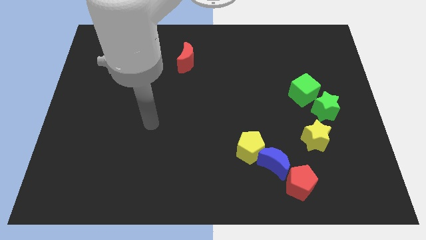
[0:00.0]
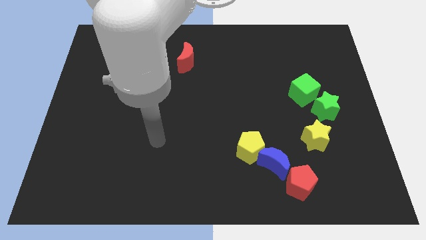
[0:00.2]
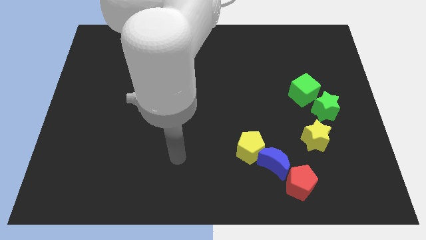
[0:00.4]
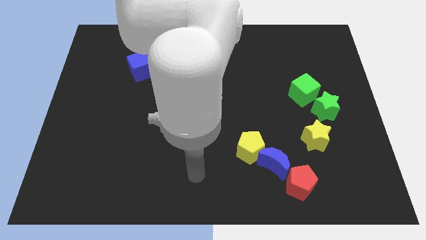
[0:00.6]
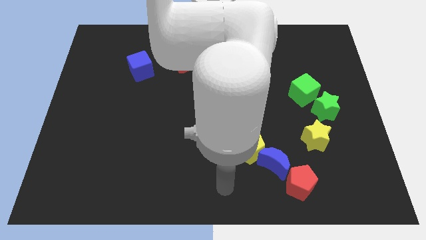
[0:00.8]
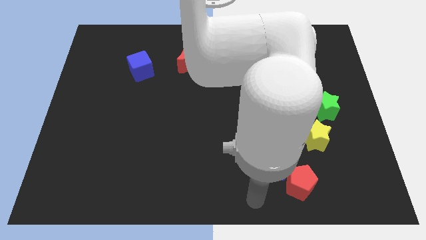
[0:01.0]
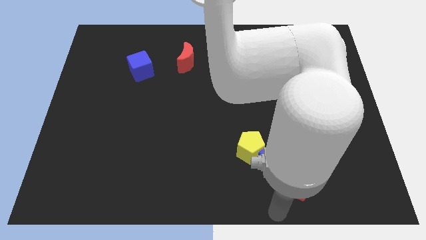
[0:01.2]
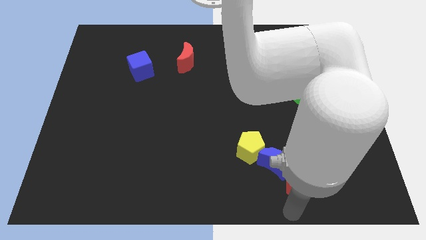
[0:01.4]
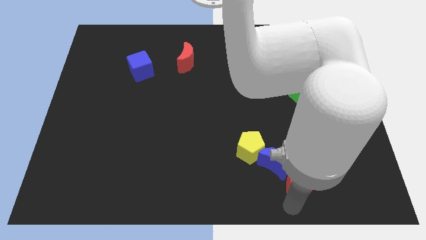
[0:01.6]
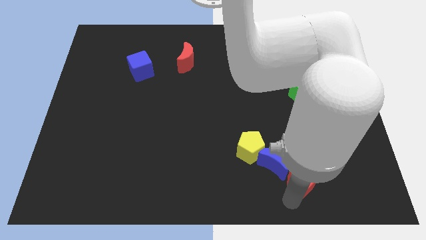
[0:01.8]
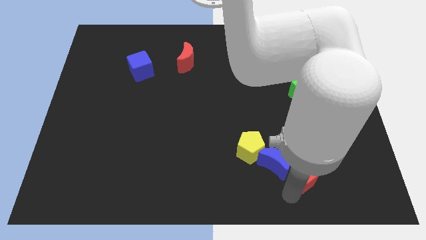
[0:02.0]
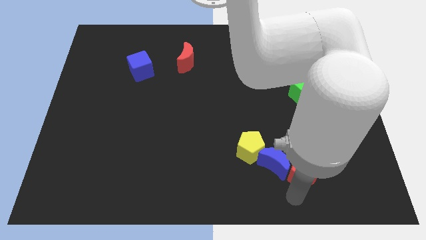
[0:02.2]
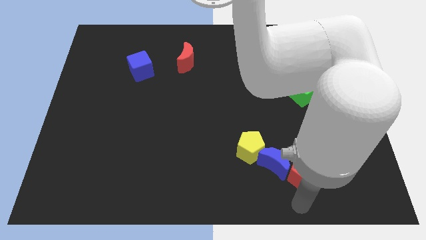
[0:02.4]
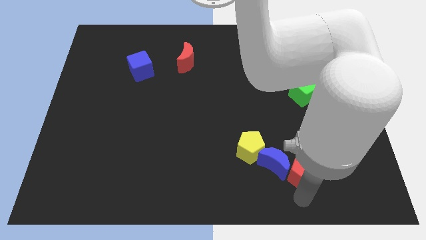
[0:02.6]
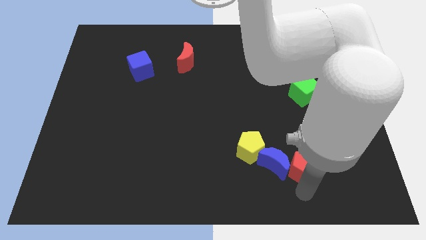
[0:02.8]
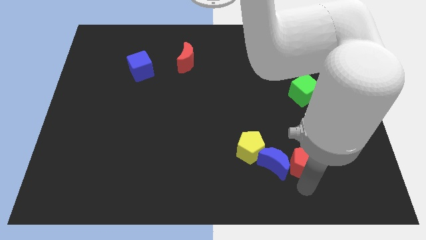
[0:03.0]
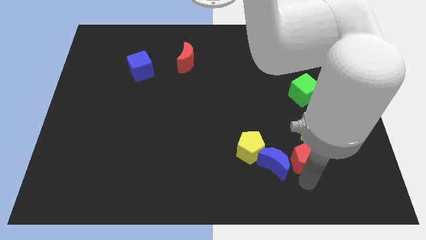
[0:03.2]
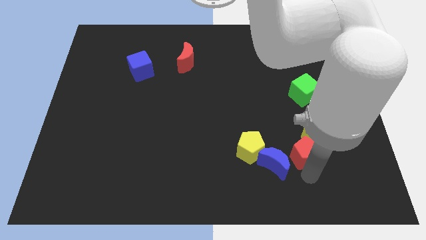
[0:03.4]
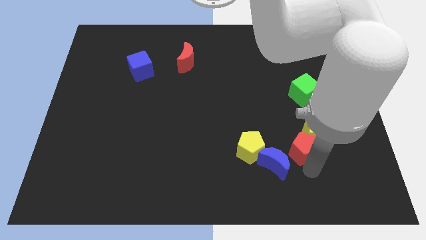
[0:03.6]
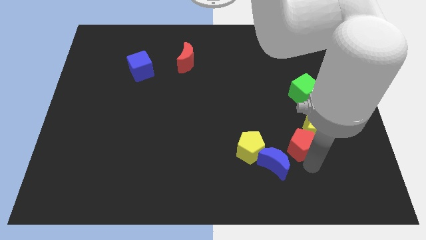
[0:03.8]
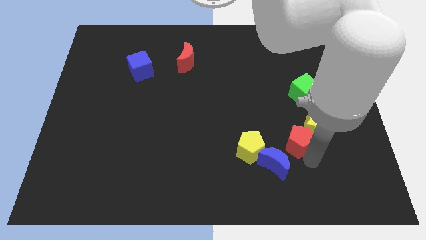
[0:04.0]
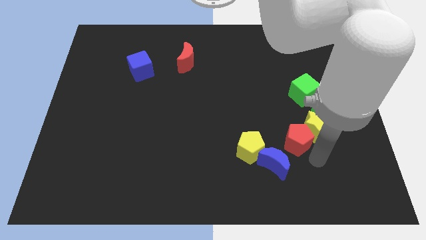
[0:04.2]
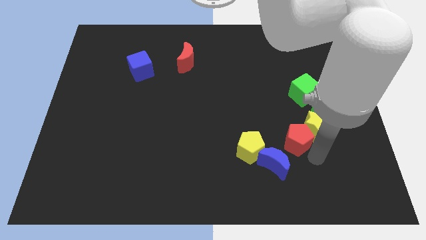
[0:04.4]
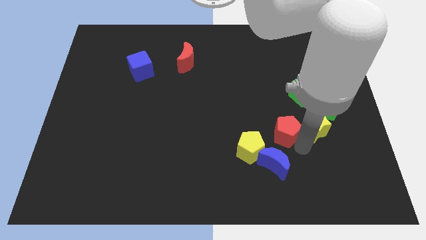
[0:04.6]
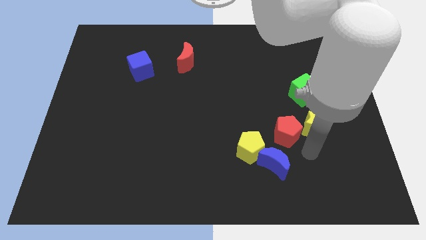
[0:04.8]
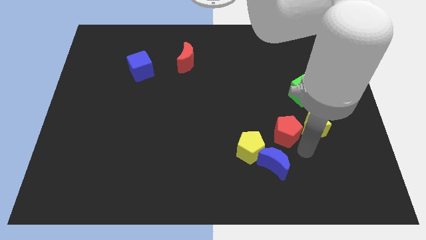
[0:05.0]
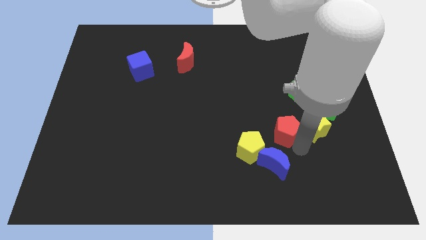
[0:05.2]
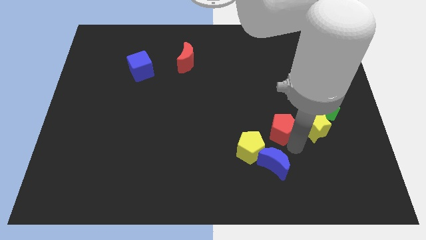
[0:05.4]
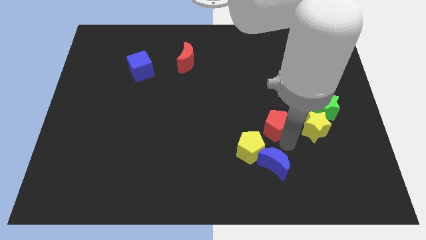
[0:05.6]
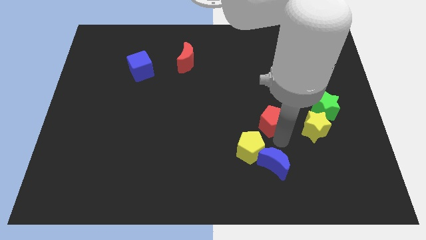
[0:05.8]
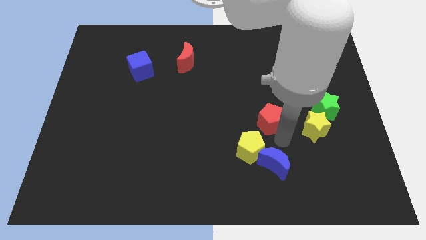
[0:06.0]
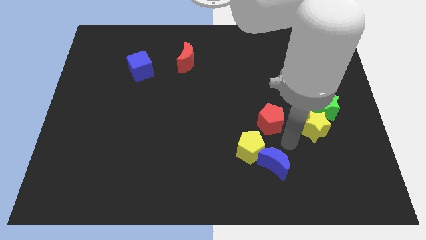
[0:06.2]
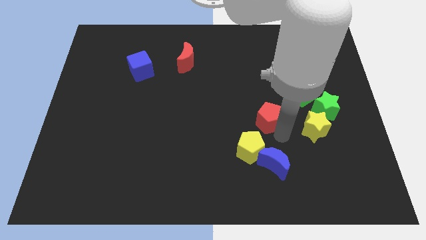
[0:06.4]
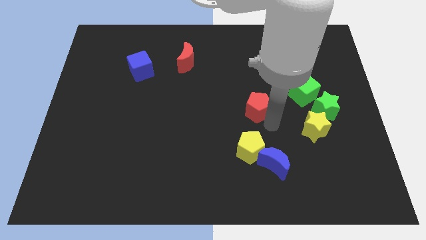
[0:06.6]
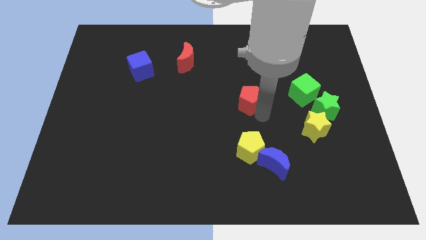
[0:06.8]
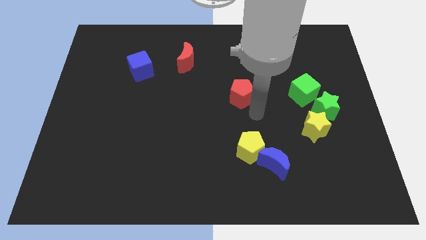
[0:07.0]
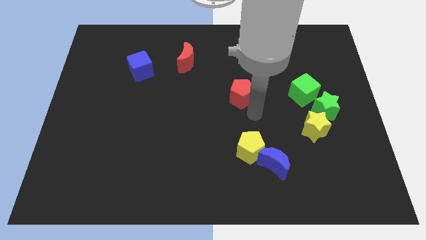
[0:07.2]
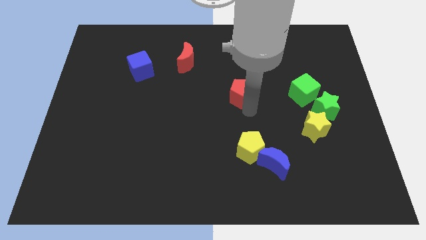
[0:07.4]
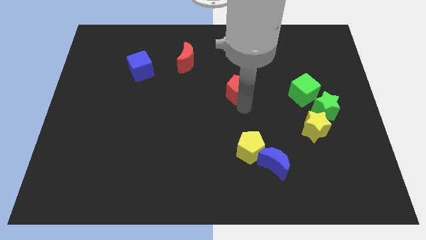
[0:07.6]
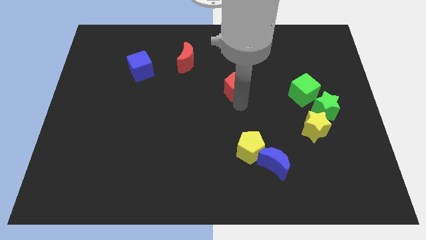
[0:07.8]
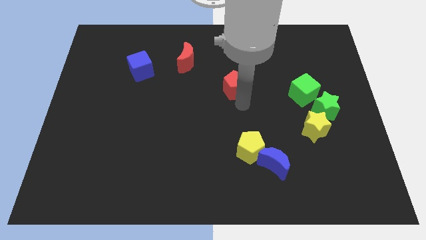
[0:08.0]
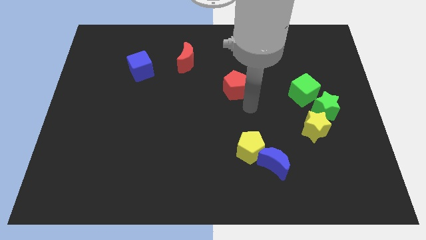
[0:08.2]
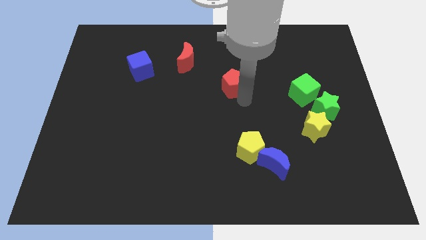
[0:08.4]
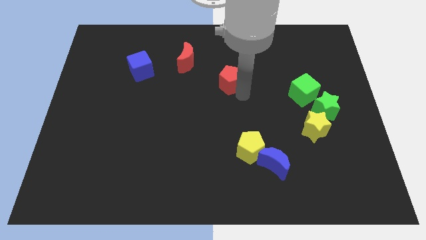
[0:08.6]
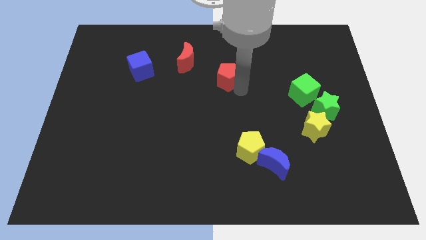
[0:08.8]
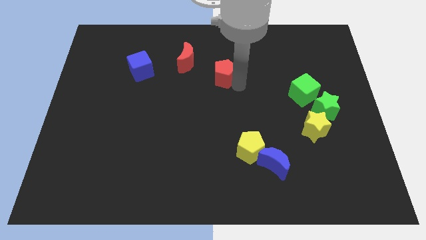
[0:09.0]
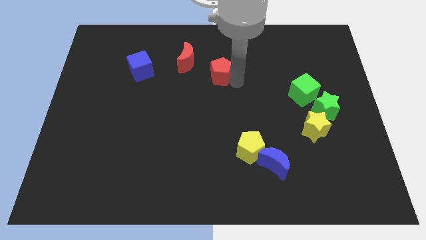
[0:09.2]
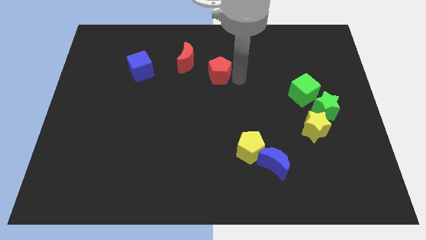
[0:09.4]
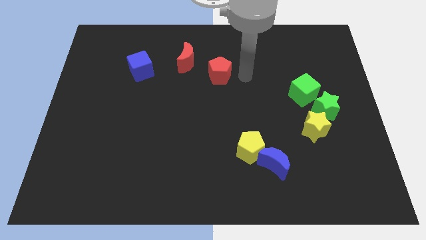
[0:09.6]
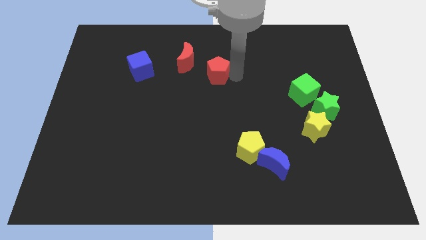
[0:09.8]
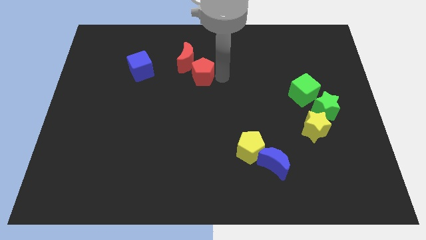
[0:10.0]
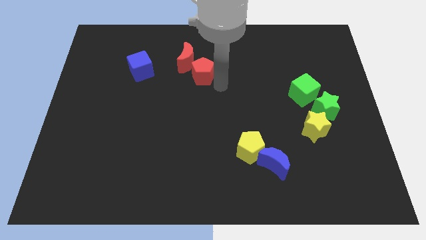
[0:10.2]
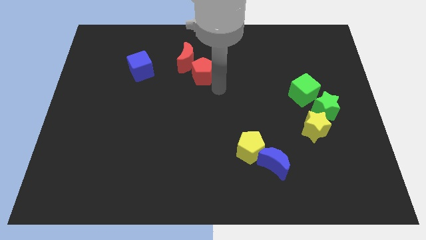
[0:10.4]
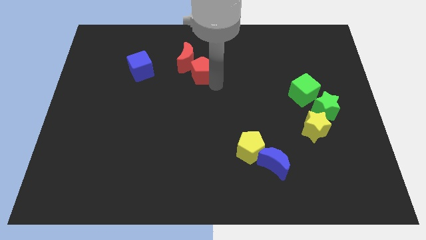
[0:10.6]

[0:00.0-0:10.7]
slide the red pentagon to the red moon

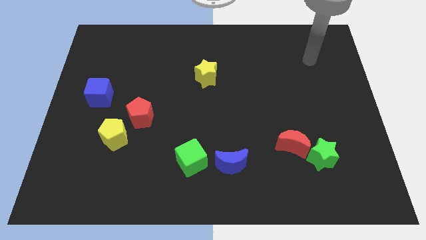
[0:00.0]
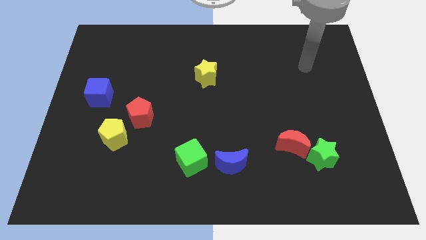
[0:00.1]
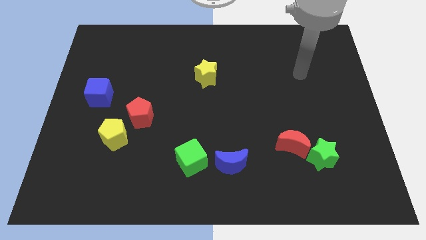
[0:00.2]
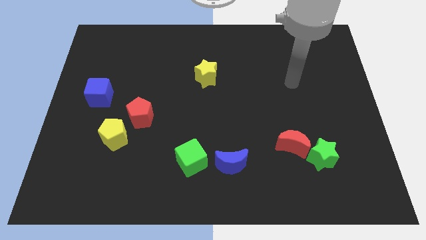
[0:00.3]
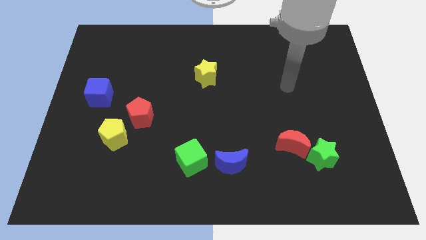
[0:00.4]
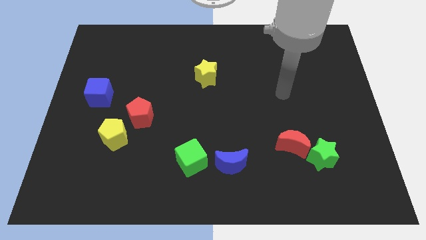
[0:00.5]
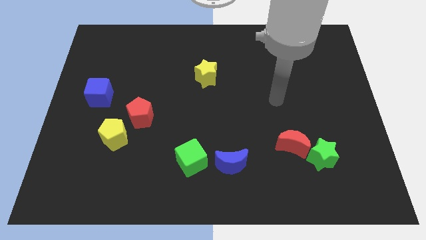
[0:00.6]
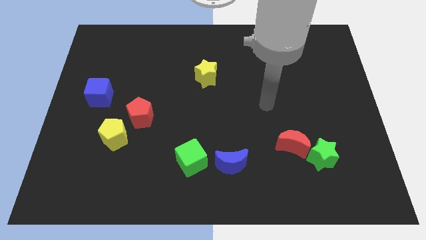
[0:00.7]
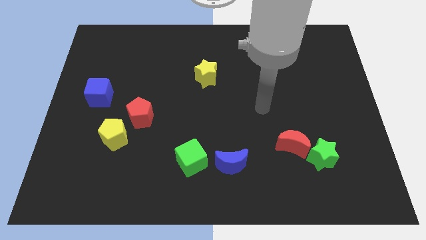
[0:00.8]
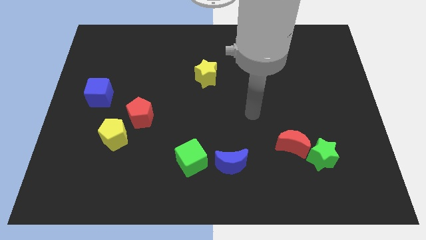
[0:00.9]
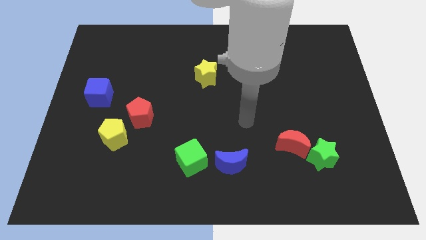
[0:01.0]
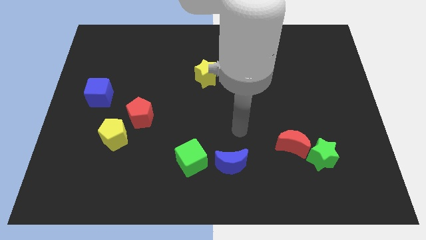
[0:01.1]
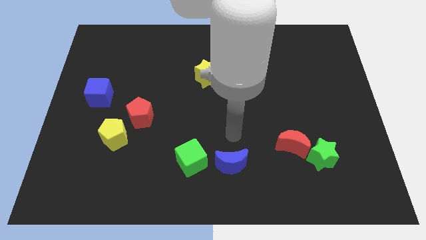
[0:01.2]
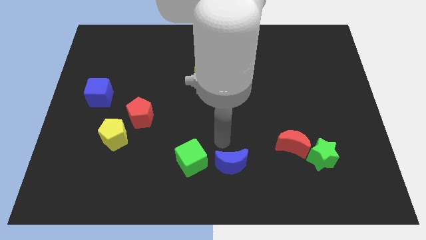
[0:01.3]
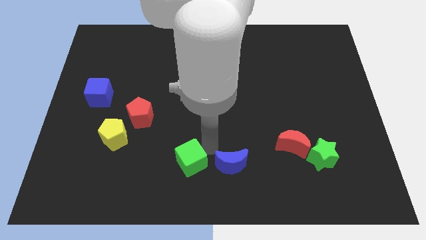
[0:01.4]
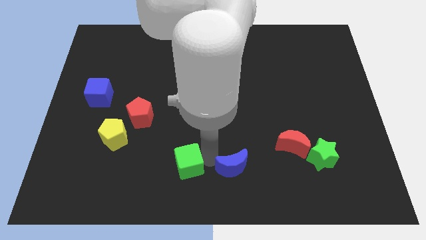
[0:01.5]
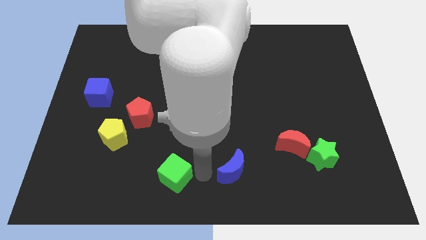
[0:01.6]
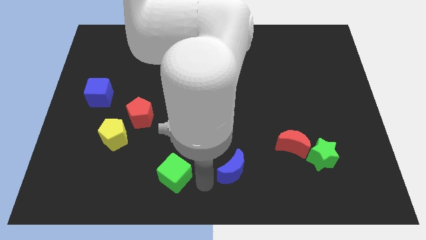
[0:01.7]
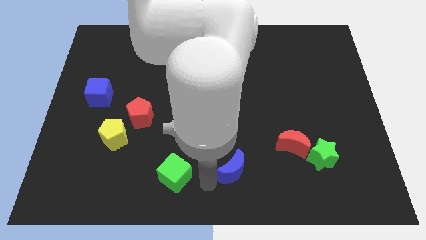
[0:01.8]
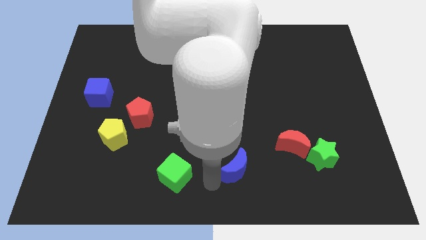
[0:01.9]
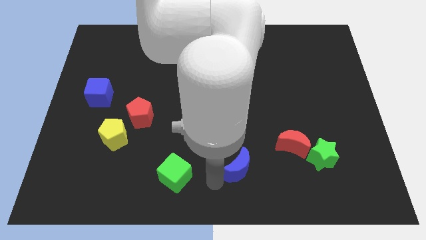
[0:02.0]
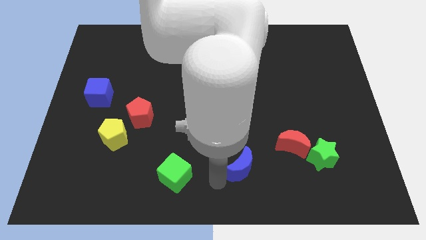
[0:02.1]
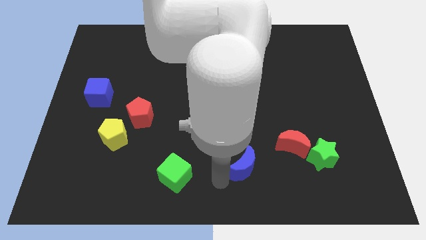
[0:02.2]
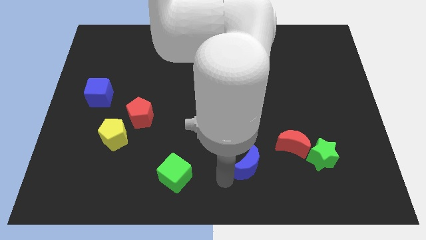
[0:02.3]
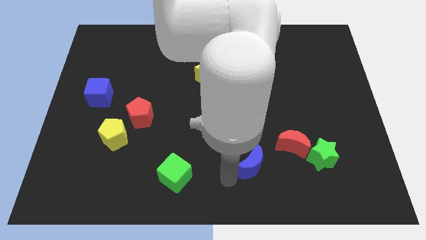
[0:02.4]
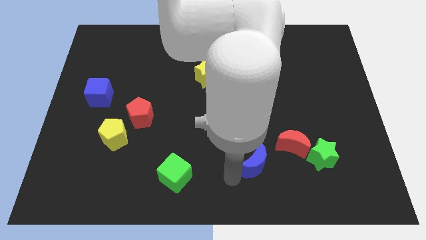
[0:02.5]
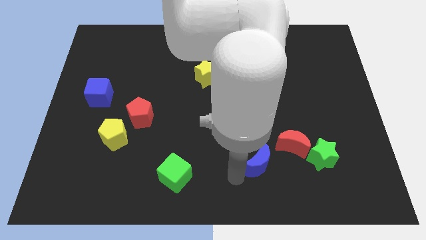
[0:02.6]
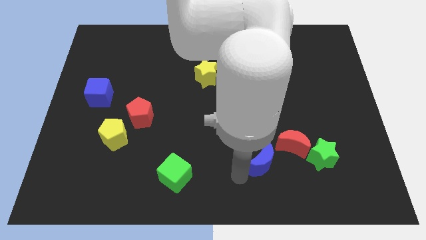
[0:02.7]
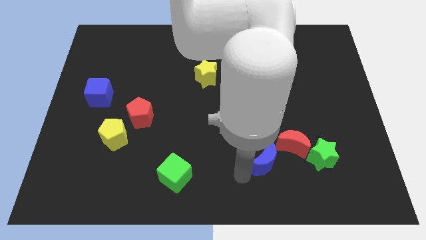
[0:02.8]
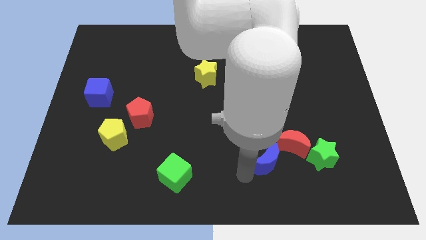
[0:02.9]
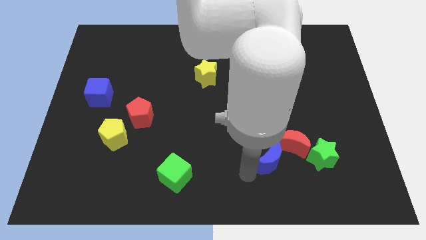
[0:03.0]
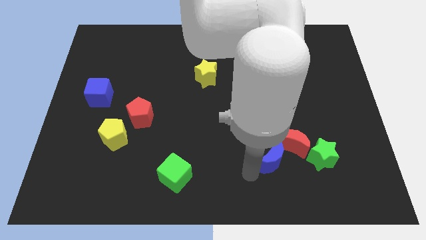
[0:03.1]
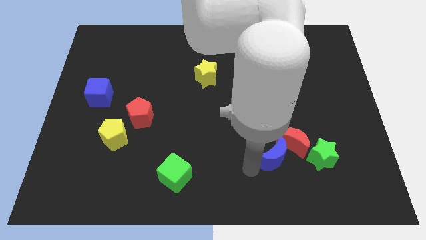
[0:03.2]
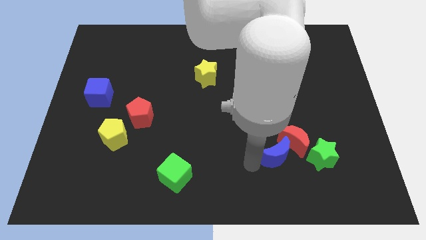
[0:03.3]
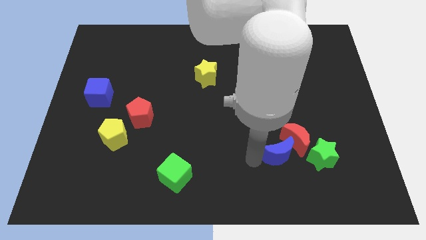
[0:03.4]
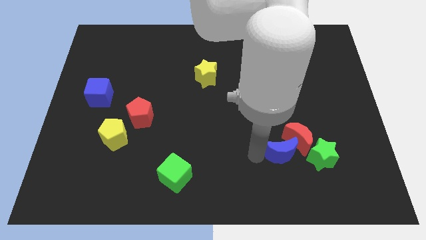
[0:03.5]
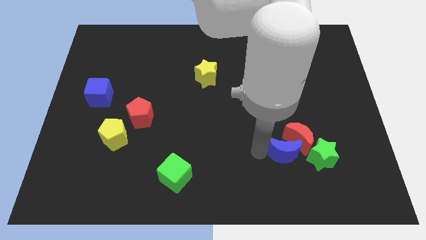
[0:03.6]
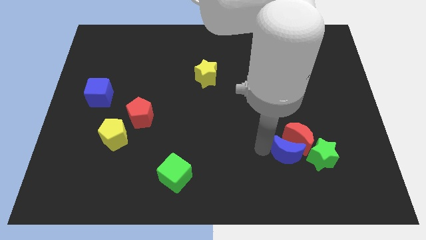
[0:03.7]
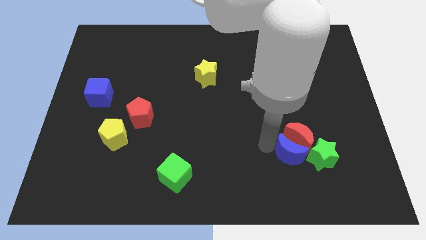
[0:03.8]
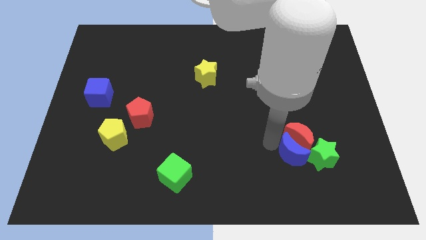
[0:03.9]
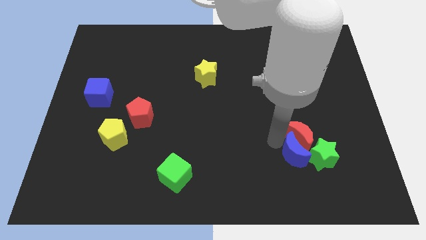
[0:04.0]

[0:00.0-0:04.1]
put the blue moon next to the green star
